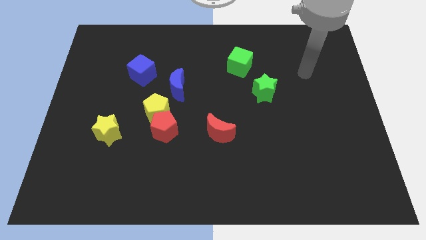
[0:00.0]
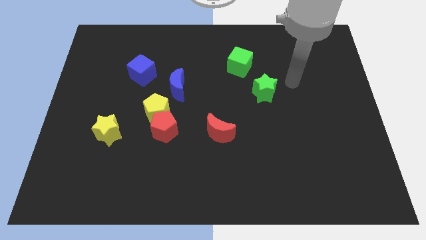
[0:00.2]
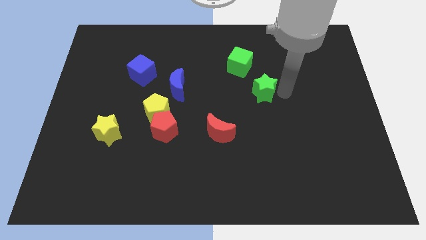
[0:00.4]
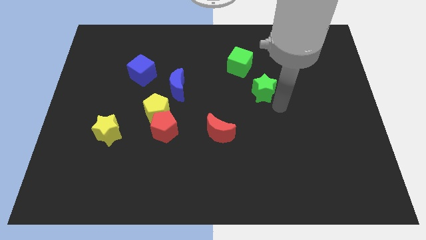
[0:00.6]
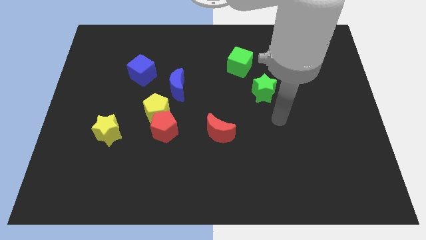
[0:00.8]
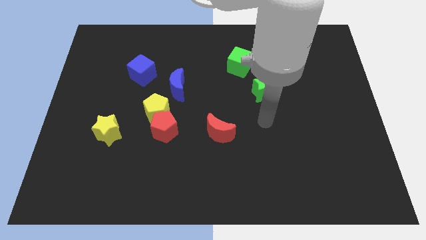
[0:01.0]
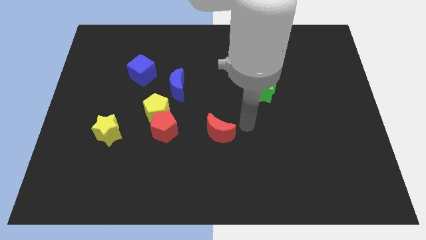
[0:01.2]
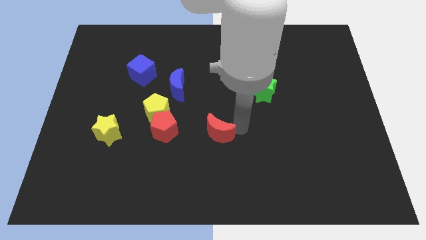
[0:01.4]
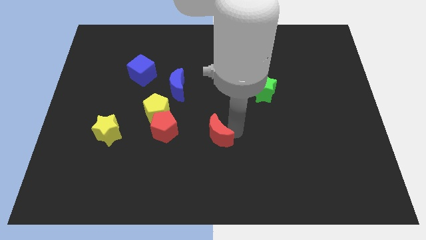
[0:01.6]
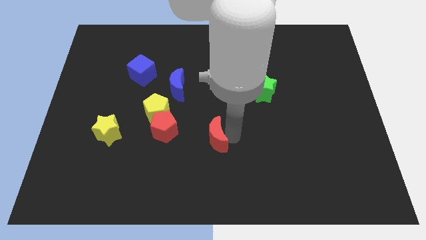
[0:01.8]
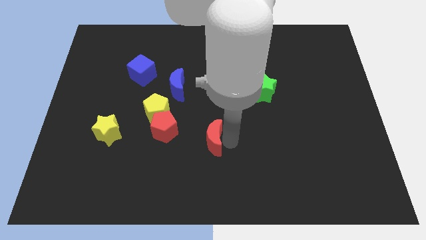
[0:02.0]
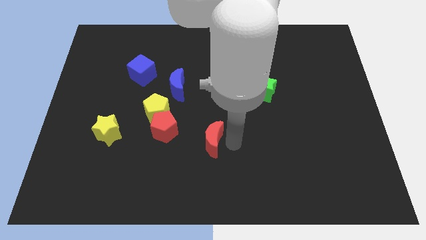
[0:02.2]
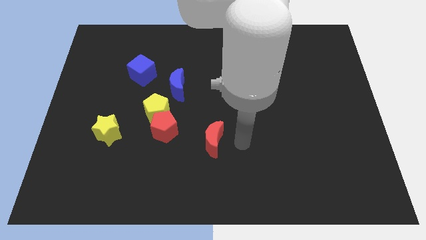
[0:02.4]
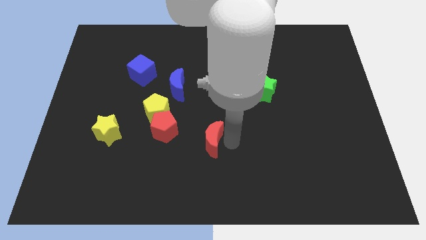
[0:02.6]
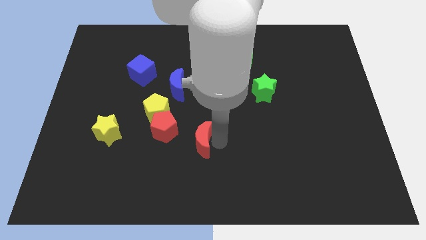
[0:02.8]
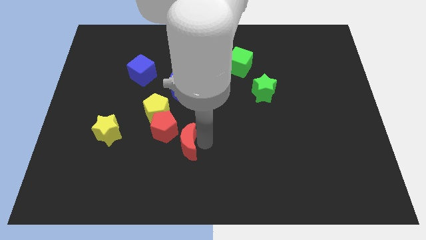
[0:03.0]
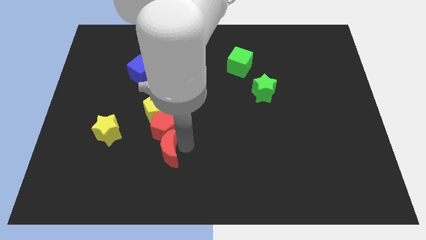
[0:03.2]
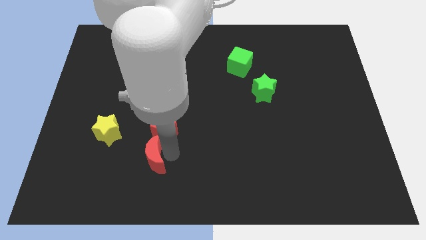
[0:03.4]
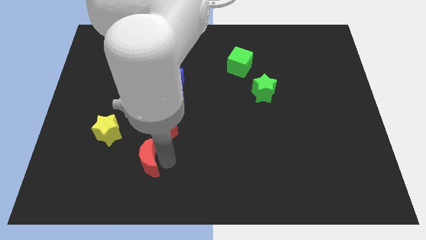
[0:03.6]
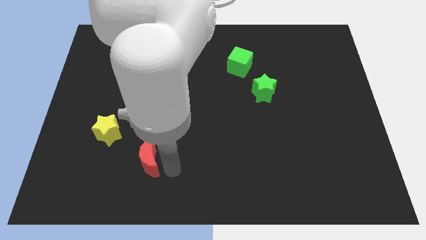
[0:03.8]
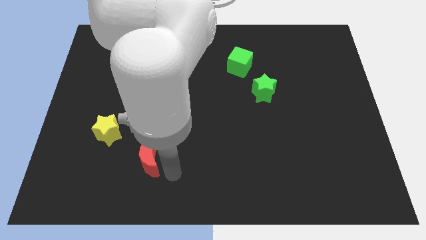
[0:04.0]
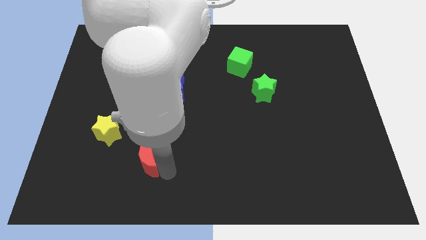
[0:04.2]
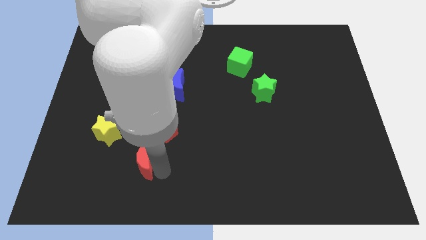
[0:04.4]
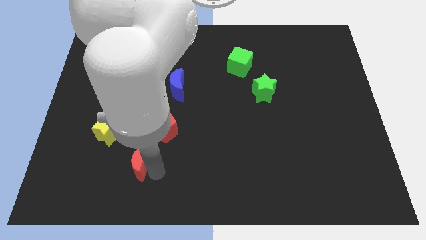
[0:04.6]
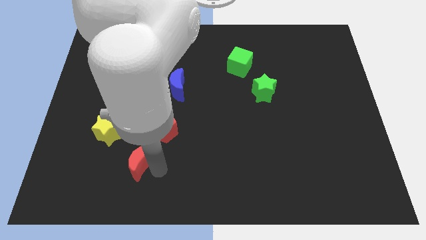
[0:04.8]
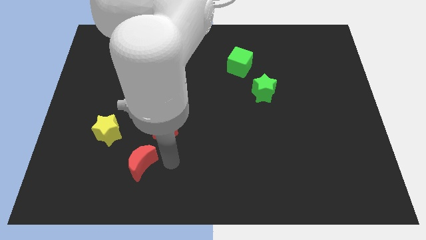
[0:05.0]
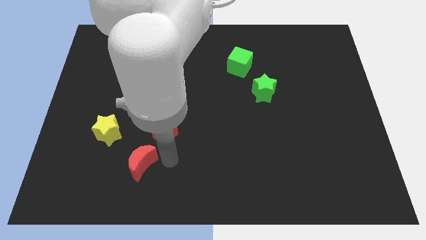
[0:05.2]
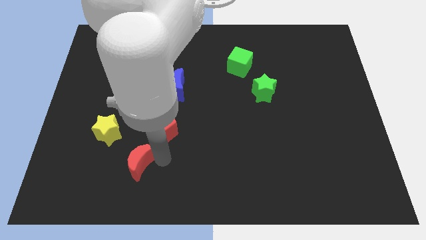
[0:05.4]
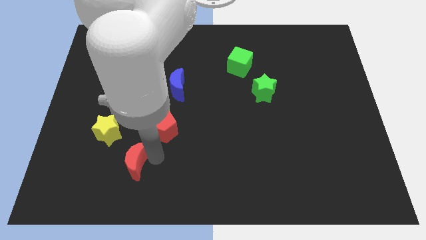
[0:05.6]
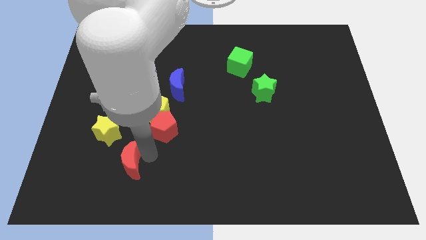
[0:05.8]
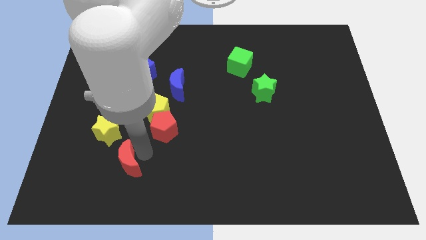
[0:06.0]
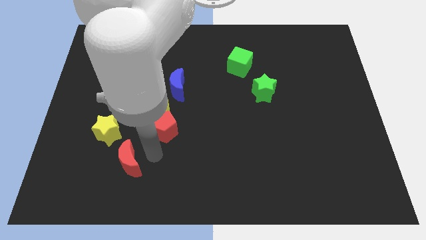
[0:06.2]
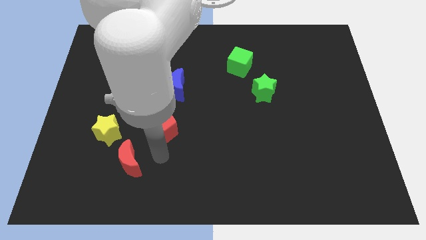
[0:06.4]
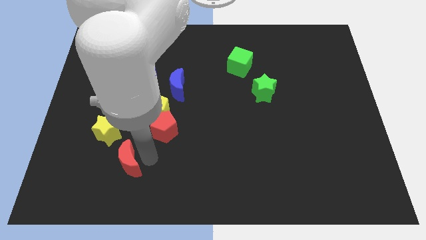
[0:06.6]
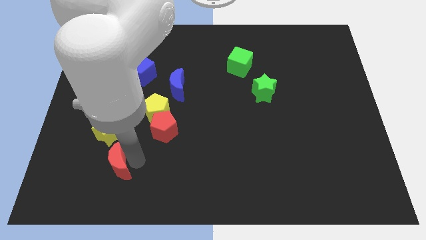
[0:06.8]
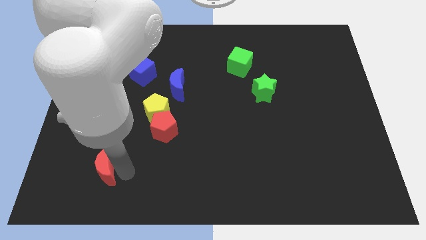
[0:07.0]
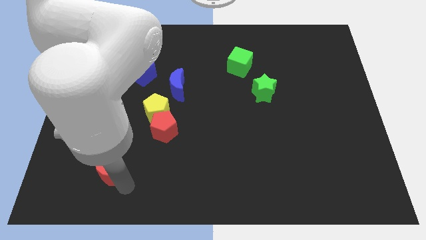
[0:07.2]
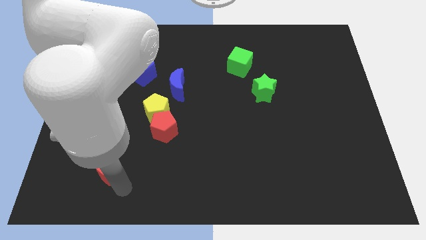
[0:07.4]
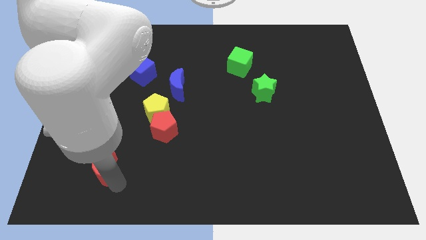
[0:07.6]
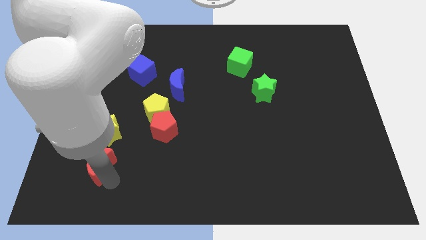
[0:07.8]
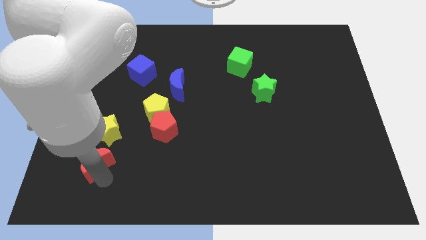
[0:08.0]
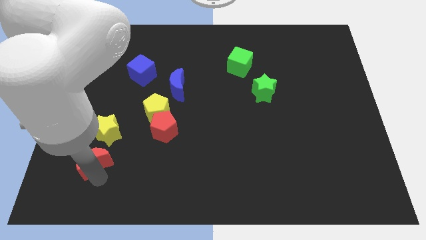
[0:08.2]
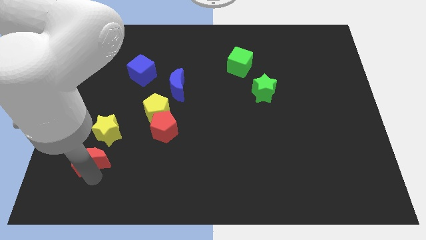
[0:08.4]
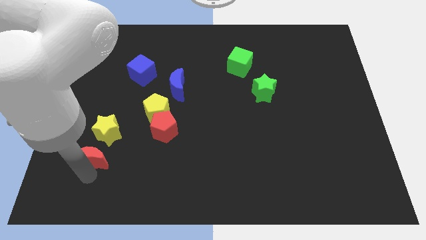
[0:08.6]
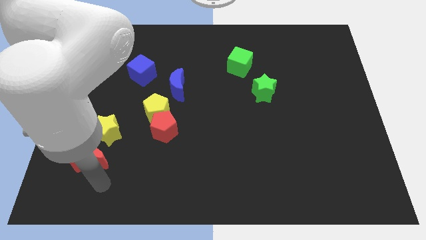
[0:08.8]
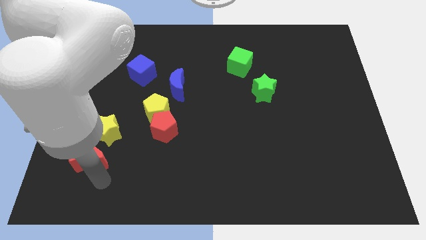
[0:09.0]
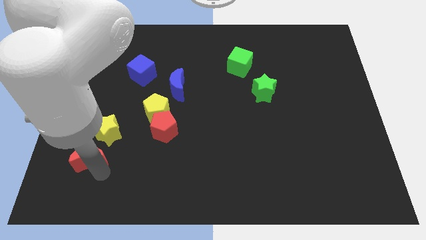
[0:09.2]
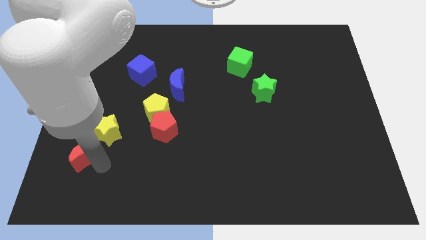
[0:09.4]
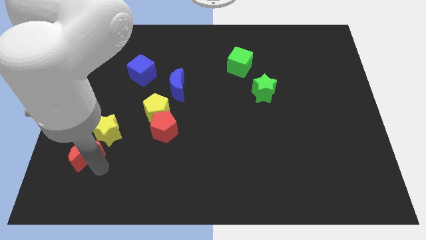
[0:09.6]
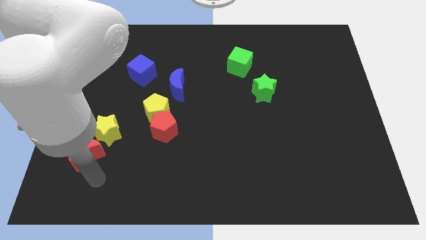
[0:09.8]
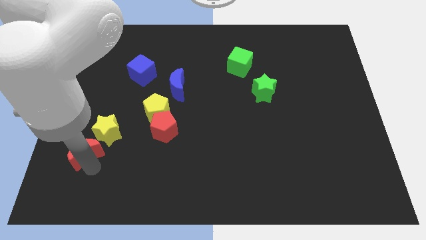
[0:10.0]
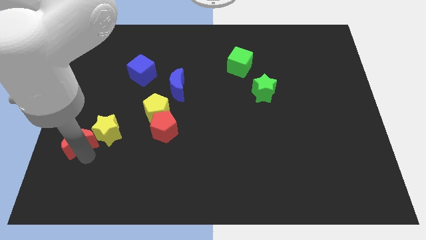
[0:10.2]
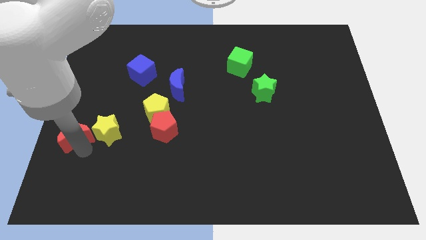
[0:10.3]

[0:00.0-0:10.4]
move the red moon to the center left

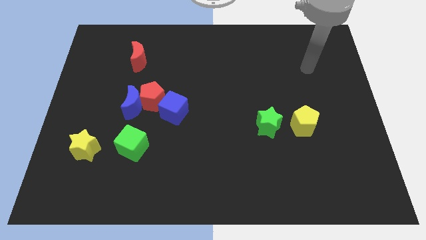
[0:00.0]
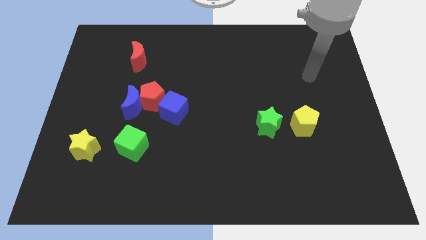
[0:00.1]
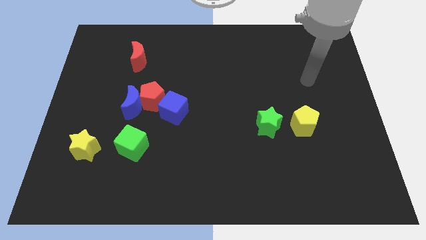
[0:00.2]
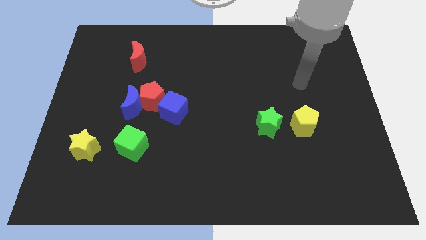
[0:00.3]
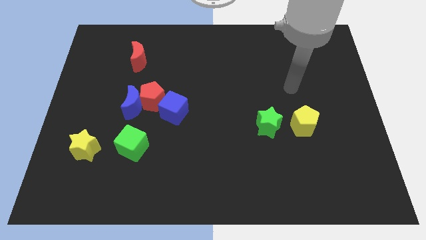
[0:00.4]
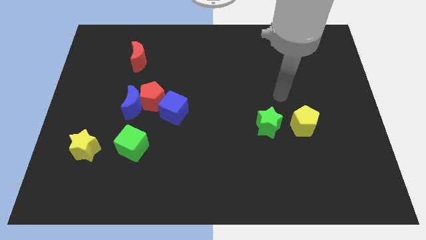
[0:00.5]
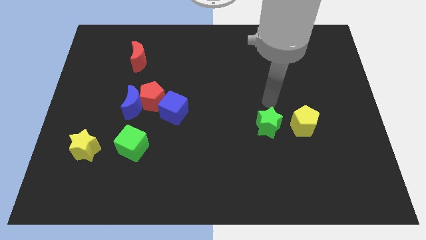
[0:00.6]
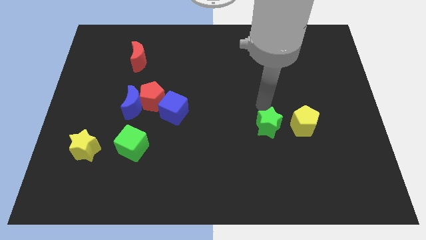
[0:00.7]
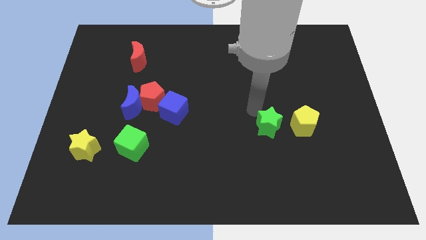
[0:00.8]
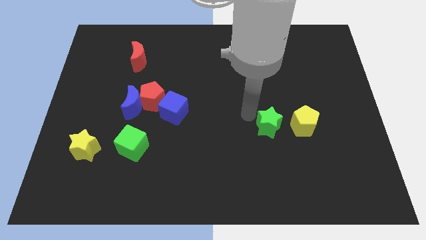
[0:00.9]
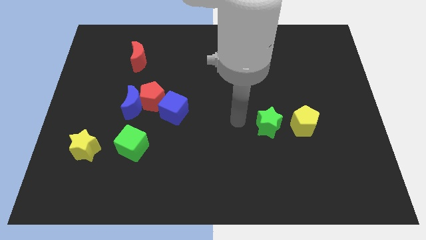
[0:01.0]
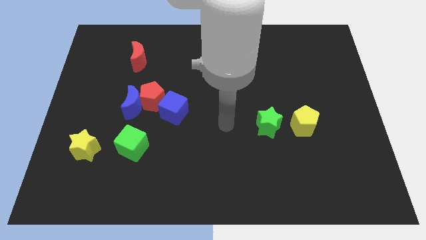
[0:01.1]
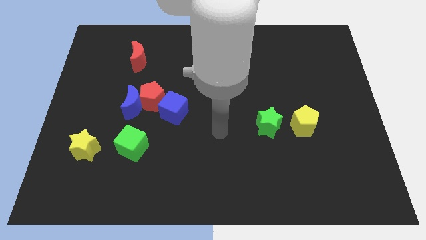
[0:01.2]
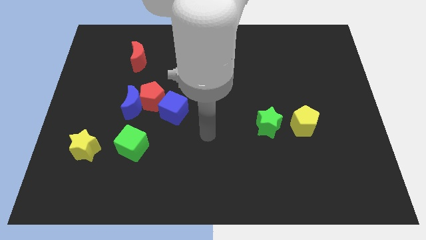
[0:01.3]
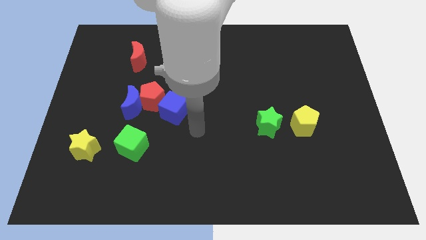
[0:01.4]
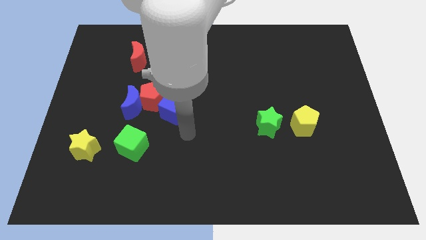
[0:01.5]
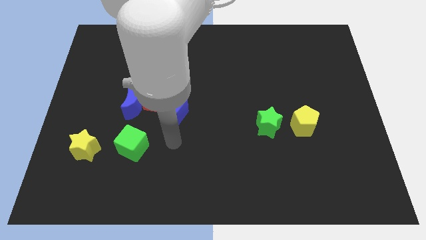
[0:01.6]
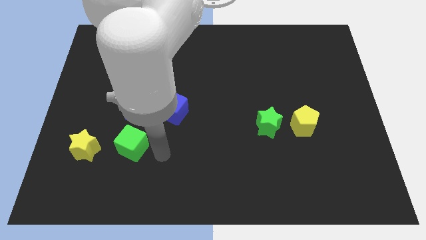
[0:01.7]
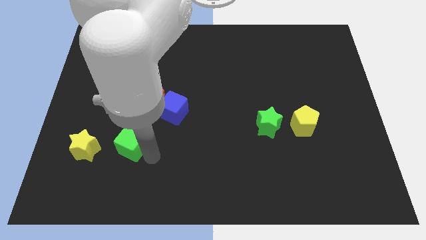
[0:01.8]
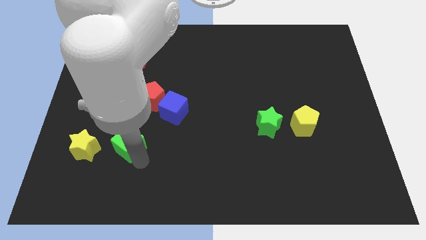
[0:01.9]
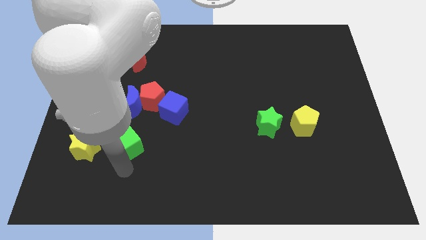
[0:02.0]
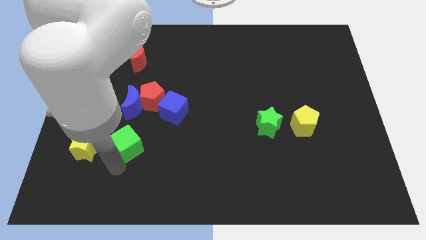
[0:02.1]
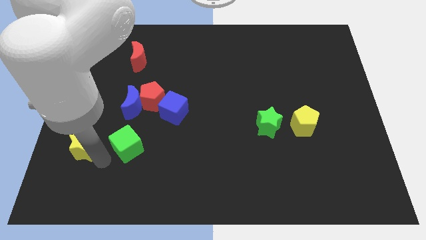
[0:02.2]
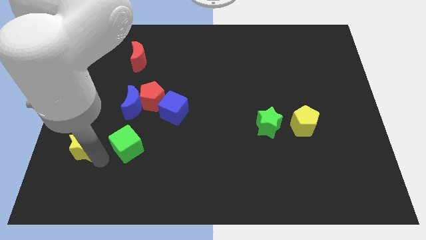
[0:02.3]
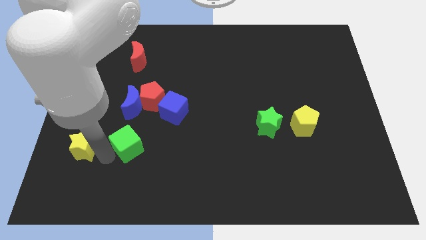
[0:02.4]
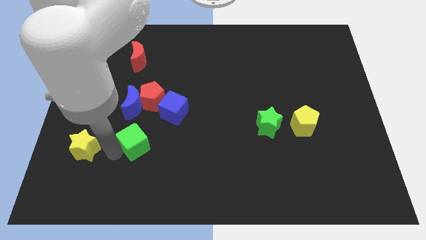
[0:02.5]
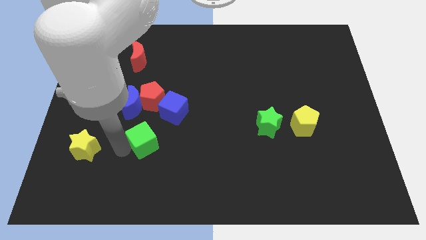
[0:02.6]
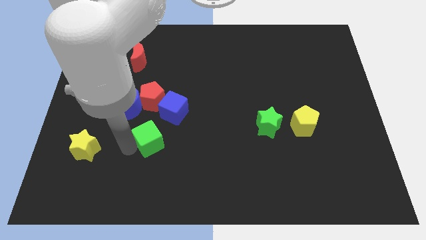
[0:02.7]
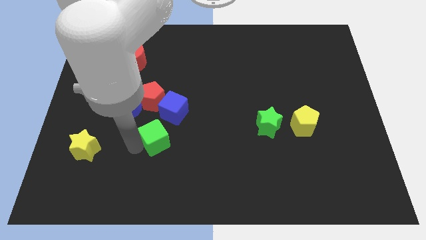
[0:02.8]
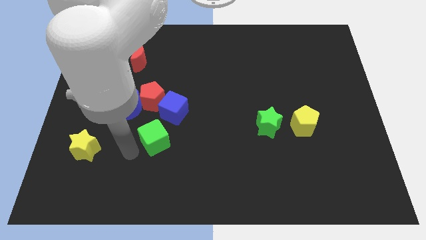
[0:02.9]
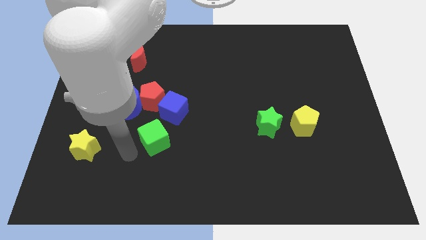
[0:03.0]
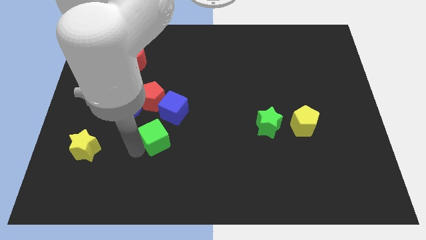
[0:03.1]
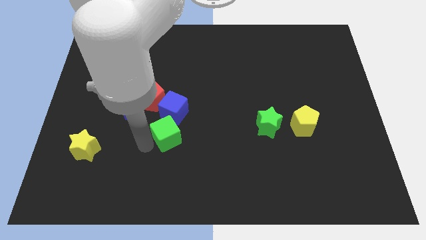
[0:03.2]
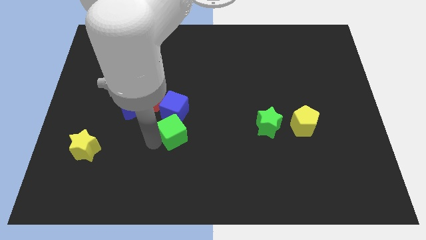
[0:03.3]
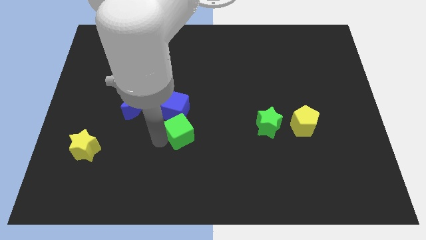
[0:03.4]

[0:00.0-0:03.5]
slide the green cube to the center
